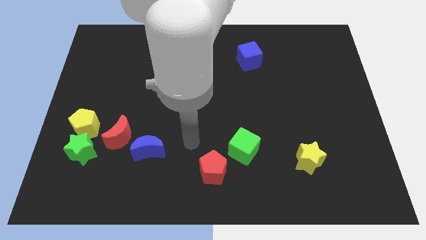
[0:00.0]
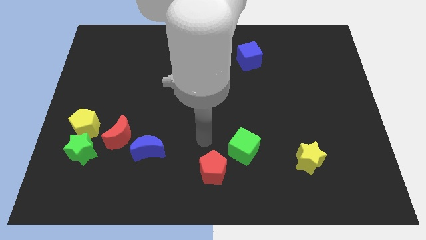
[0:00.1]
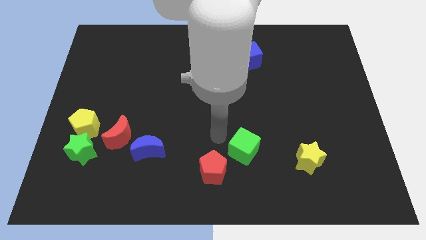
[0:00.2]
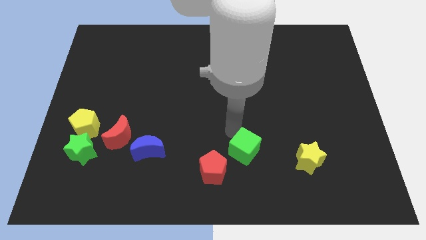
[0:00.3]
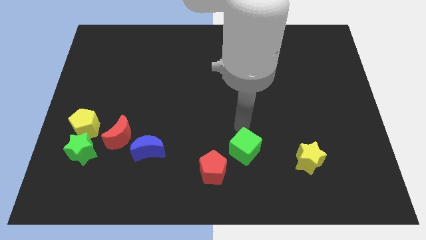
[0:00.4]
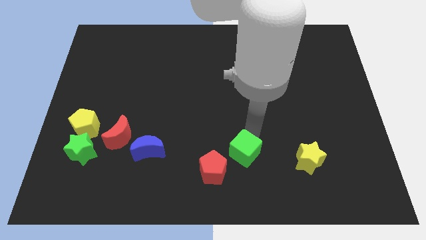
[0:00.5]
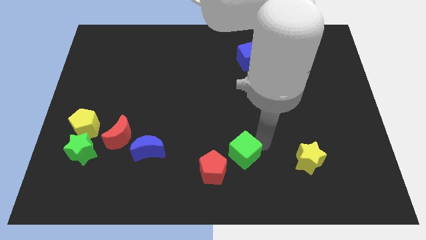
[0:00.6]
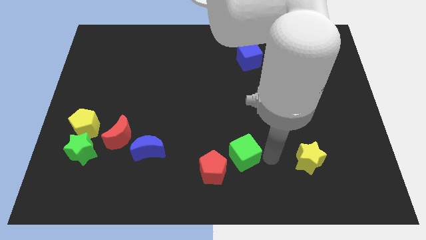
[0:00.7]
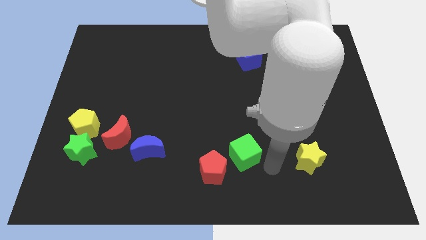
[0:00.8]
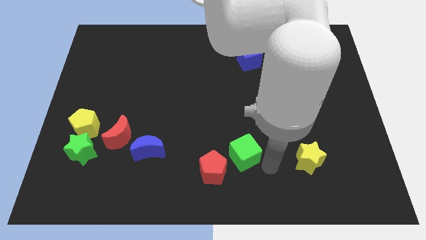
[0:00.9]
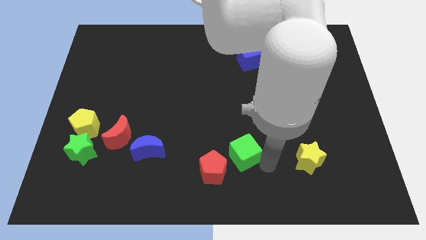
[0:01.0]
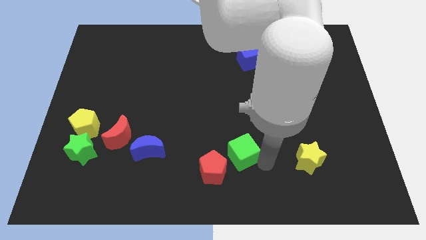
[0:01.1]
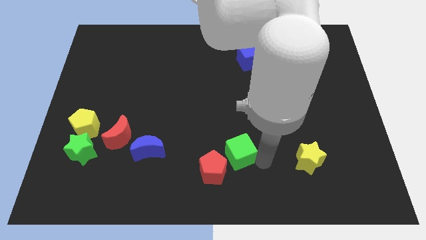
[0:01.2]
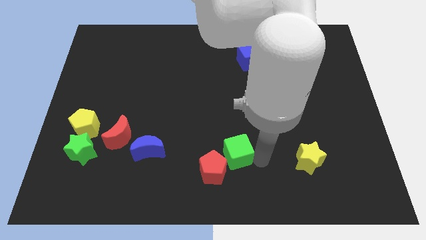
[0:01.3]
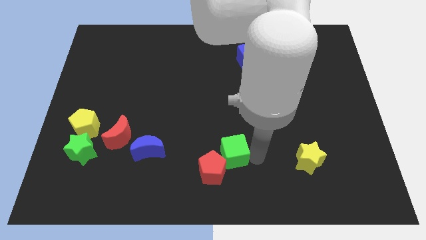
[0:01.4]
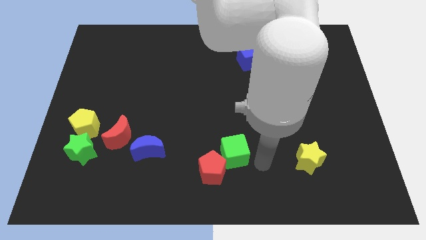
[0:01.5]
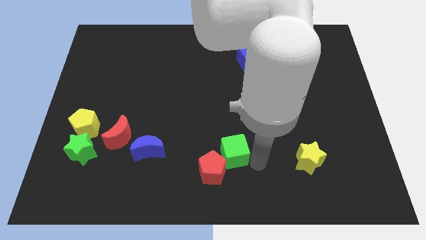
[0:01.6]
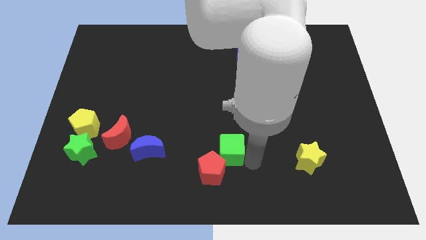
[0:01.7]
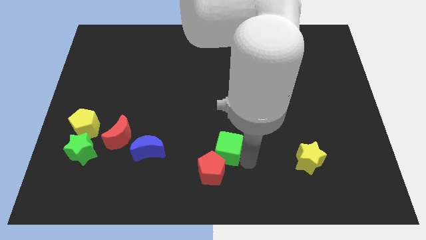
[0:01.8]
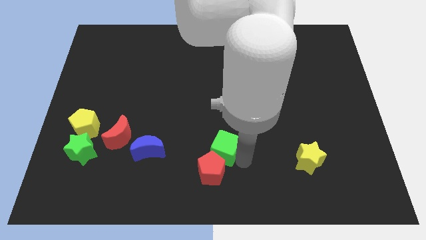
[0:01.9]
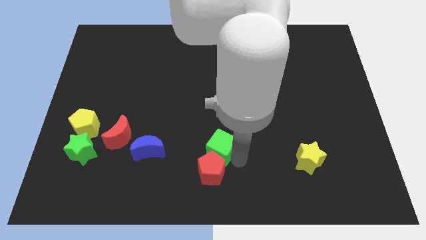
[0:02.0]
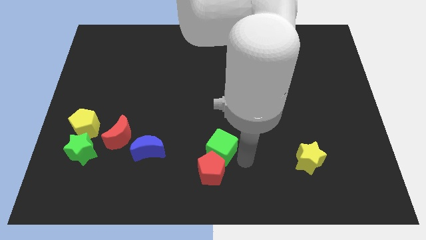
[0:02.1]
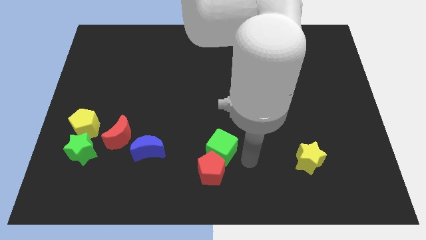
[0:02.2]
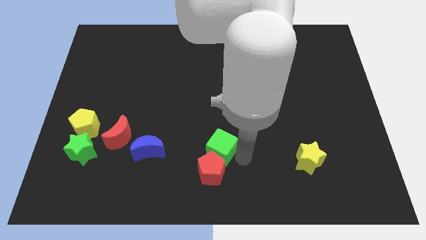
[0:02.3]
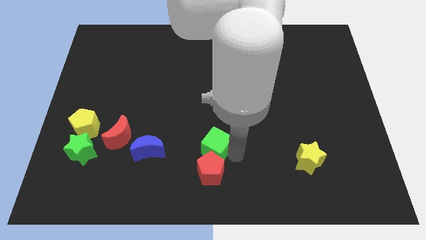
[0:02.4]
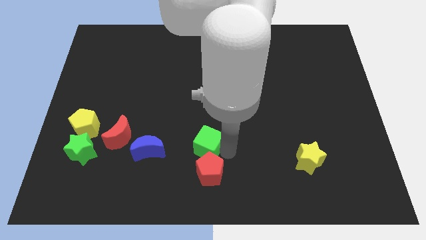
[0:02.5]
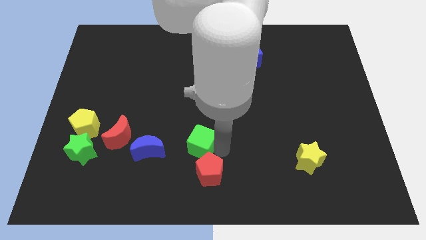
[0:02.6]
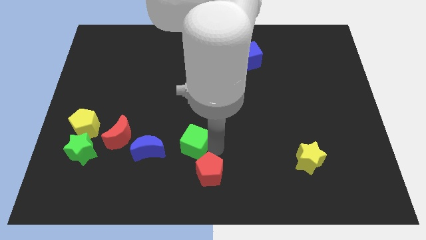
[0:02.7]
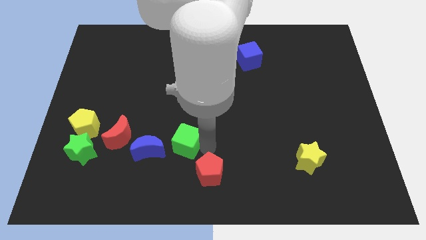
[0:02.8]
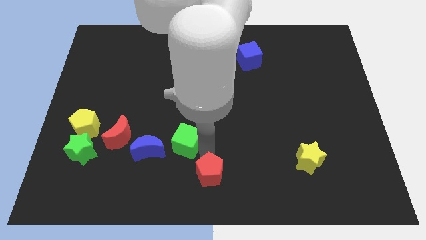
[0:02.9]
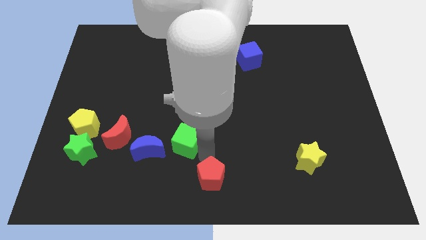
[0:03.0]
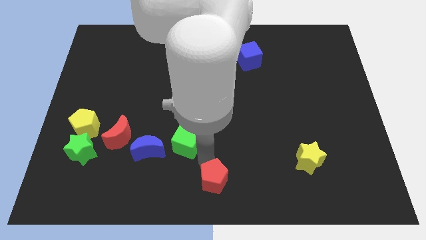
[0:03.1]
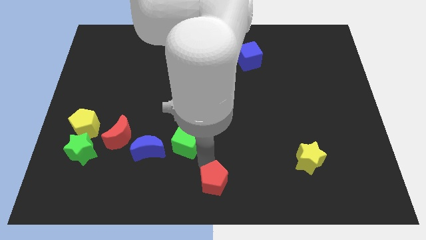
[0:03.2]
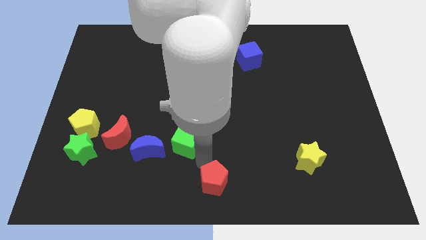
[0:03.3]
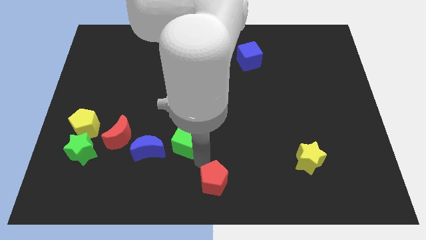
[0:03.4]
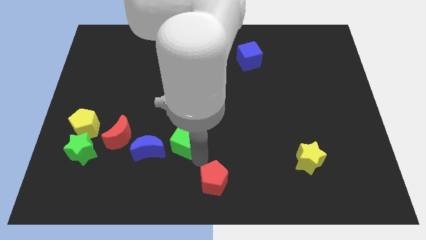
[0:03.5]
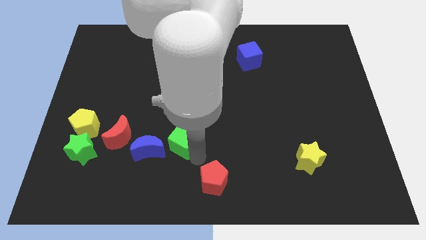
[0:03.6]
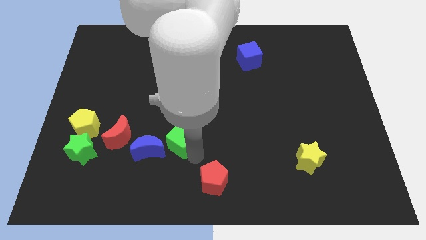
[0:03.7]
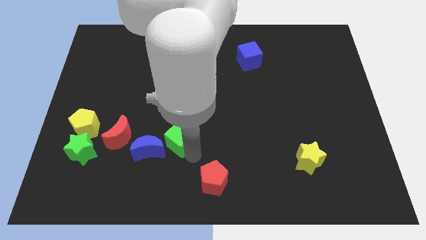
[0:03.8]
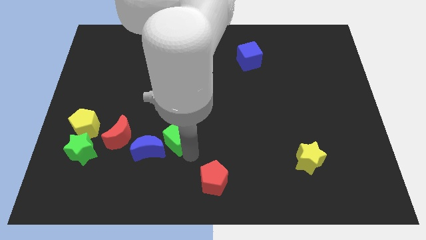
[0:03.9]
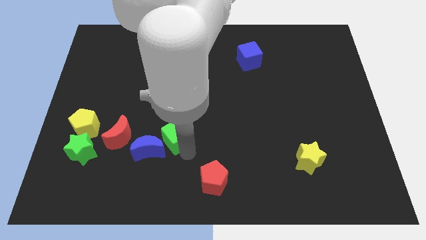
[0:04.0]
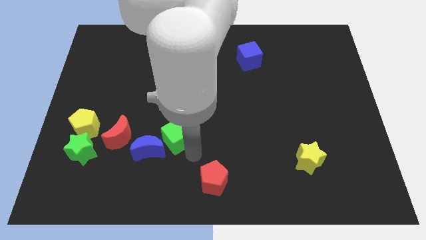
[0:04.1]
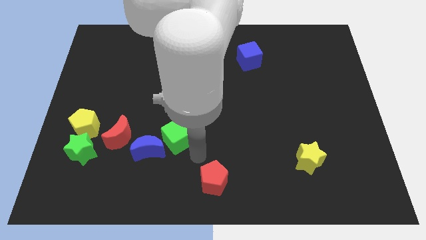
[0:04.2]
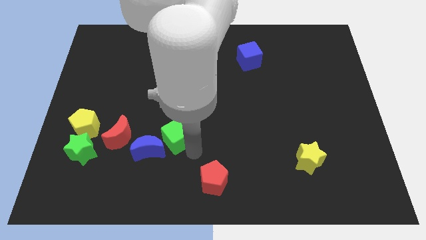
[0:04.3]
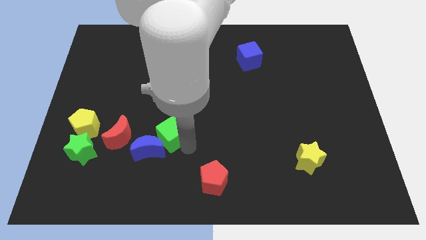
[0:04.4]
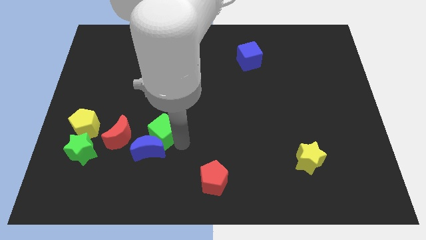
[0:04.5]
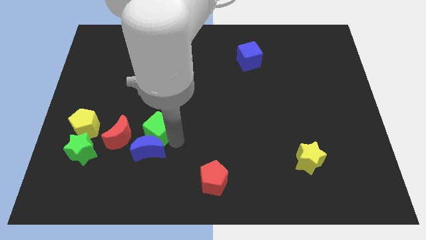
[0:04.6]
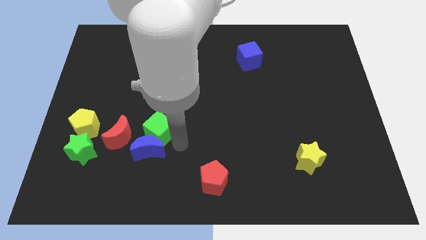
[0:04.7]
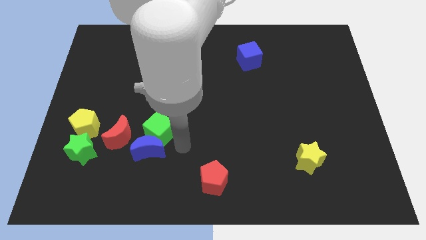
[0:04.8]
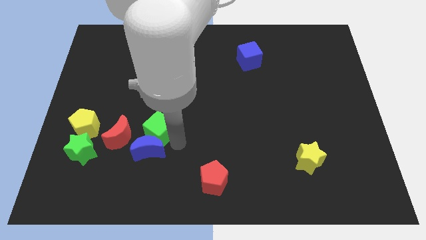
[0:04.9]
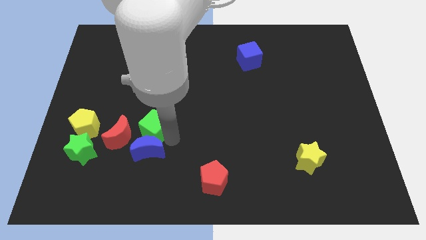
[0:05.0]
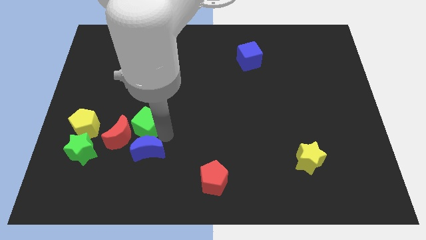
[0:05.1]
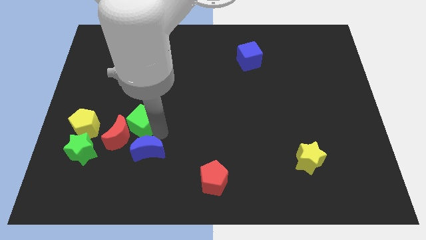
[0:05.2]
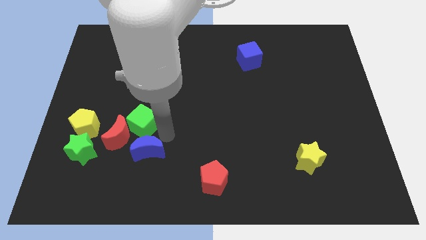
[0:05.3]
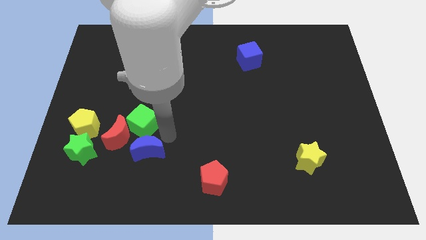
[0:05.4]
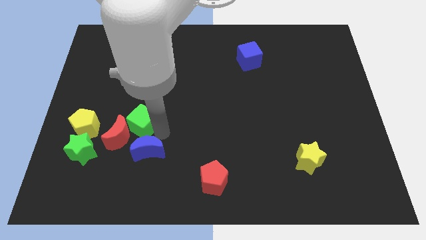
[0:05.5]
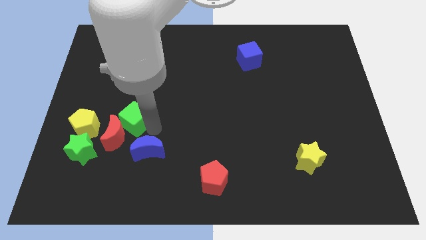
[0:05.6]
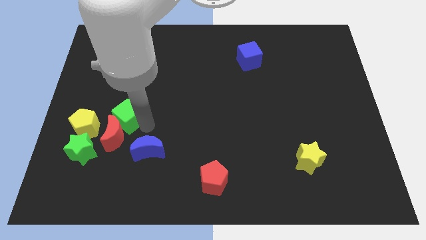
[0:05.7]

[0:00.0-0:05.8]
slide the green cube to the top right side of the yellow pentagon

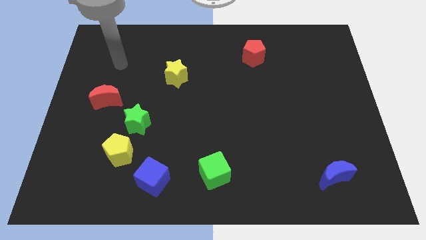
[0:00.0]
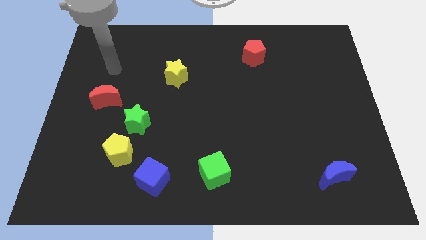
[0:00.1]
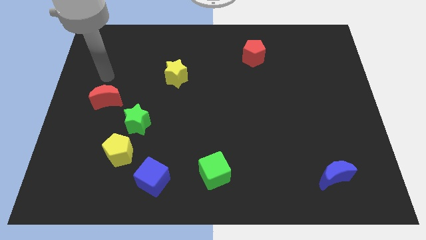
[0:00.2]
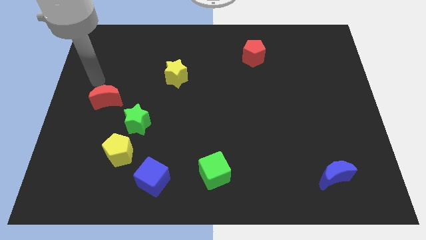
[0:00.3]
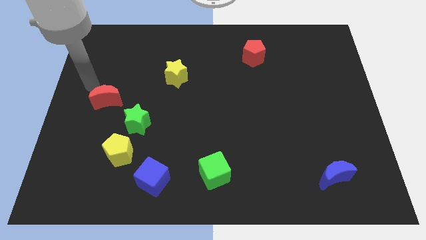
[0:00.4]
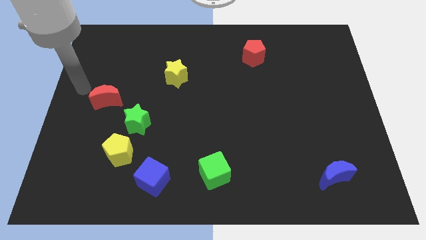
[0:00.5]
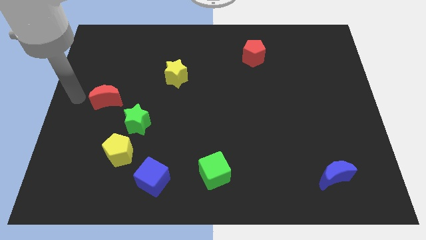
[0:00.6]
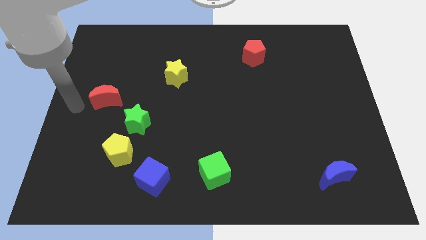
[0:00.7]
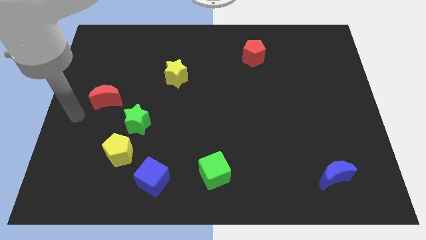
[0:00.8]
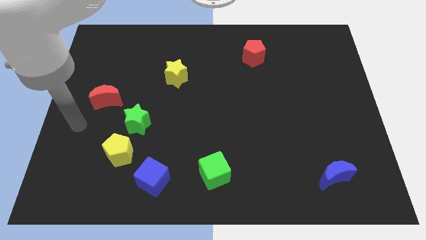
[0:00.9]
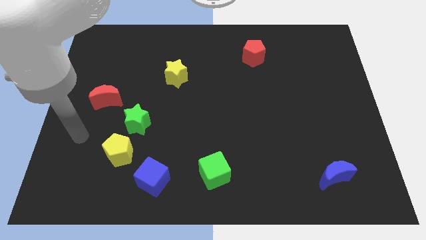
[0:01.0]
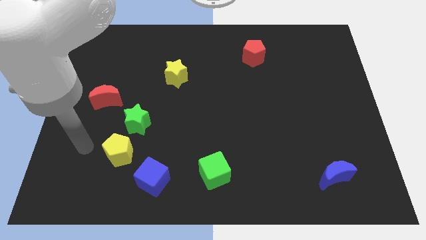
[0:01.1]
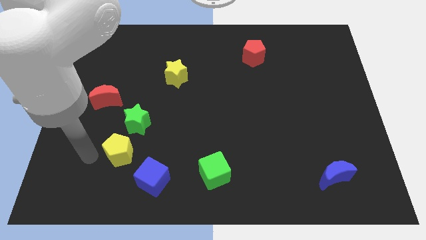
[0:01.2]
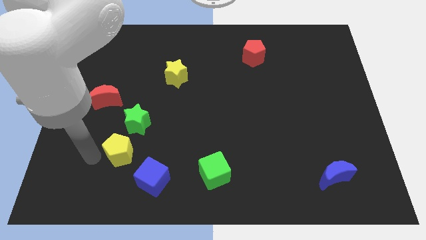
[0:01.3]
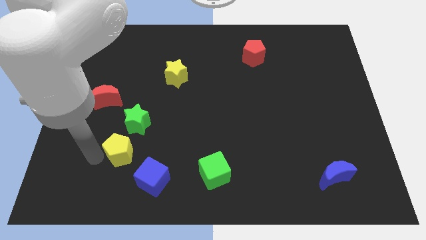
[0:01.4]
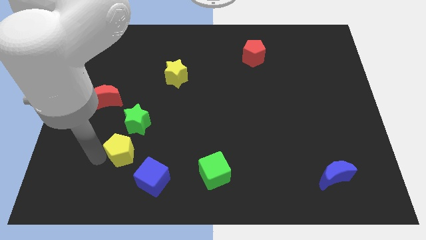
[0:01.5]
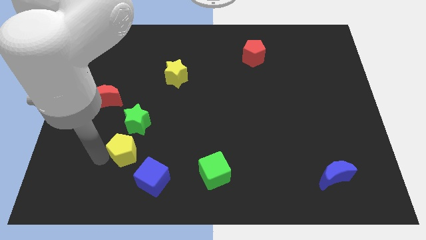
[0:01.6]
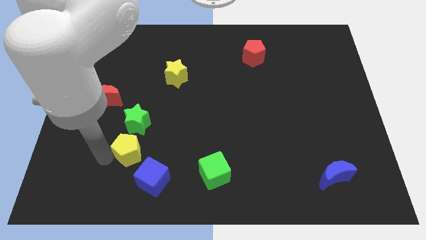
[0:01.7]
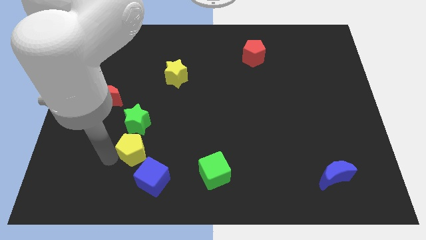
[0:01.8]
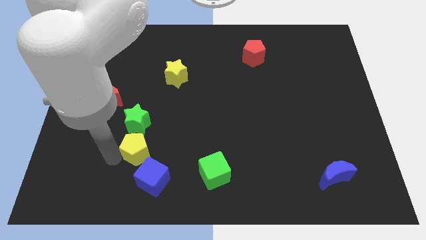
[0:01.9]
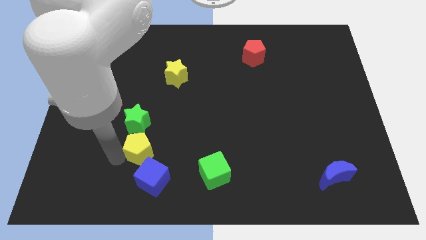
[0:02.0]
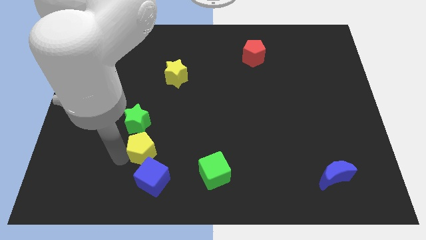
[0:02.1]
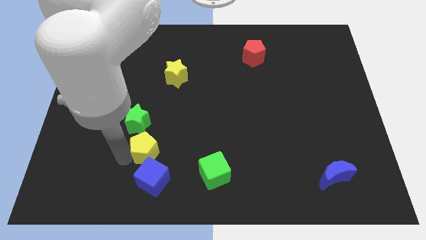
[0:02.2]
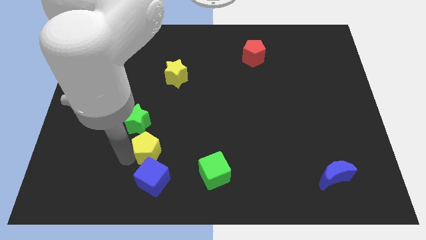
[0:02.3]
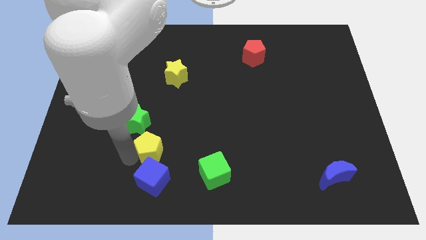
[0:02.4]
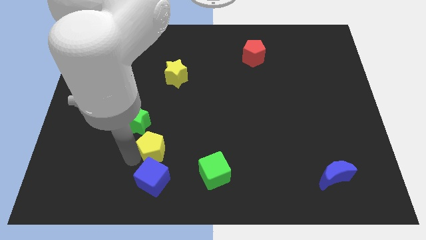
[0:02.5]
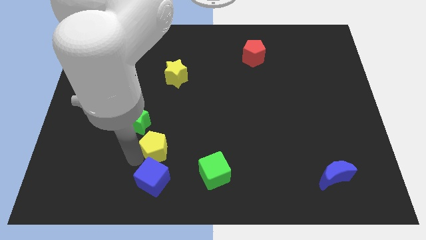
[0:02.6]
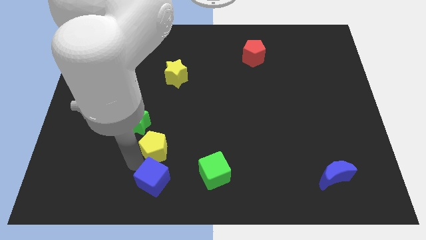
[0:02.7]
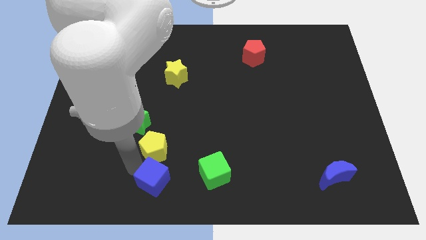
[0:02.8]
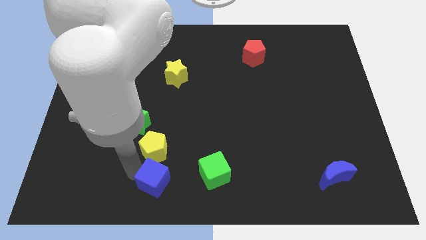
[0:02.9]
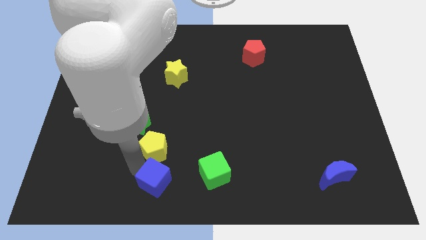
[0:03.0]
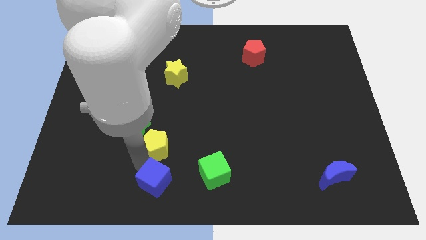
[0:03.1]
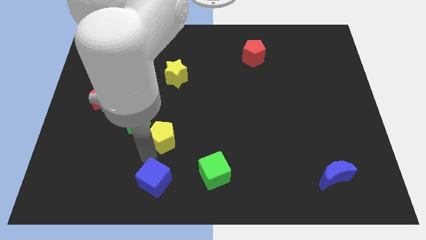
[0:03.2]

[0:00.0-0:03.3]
put the yellow pentagon to the right side of the green star
